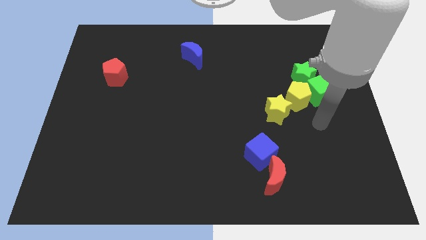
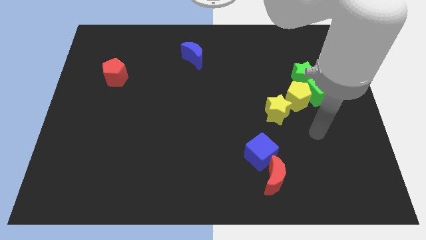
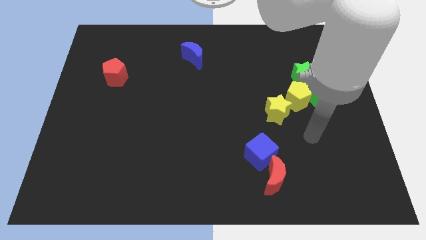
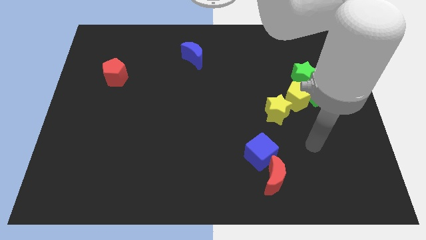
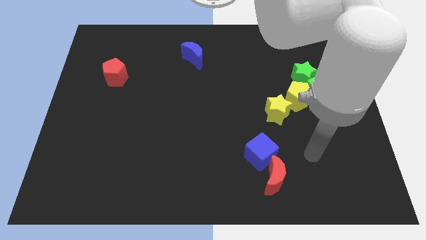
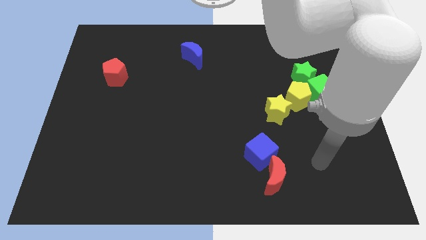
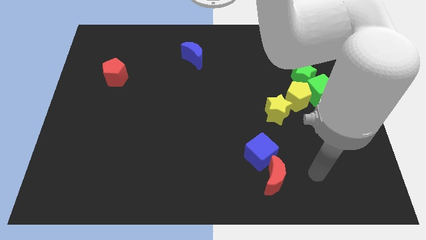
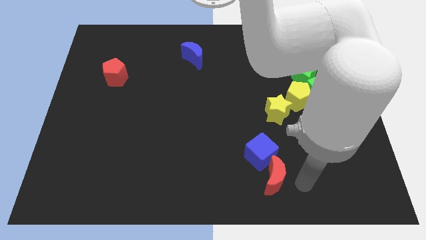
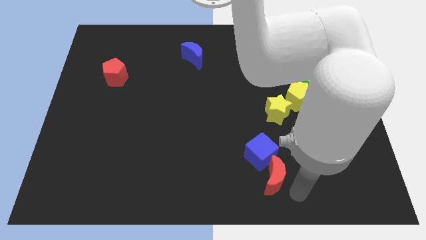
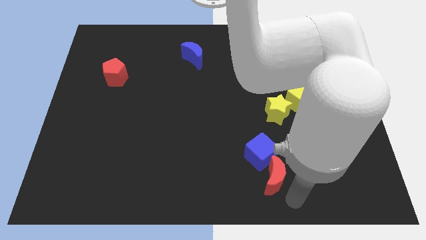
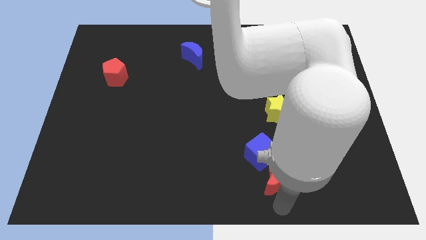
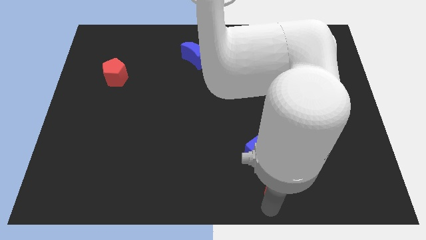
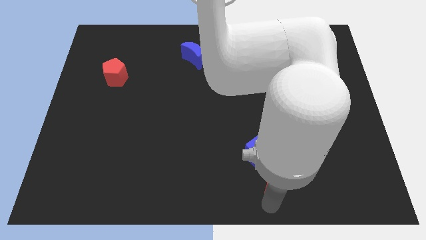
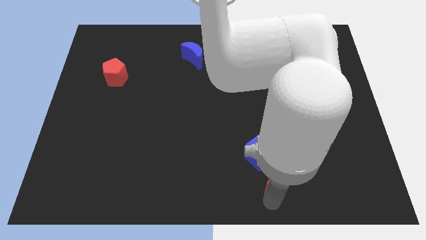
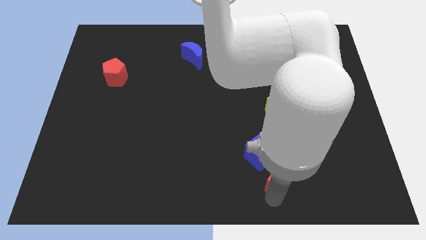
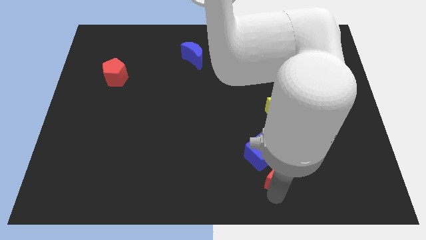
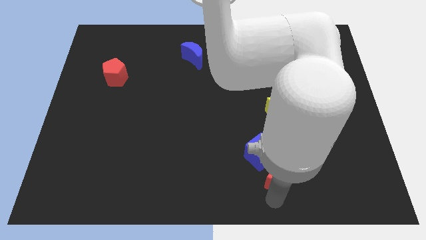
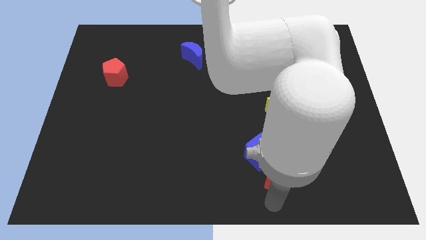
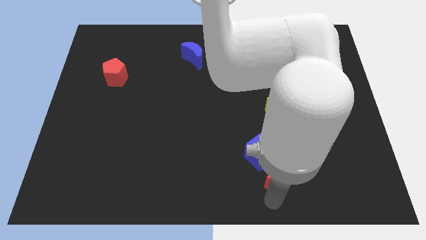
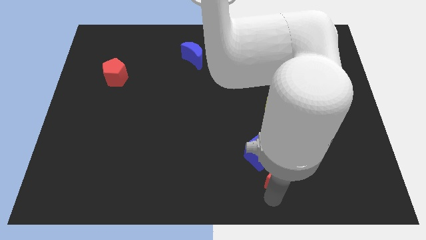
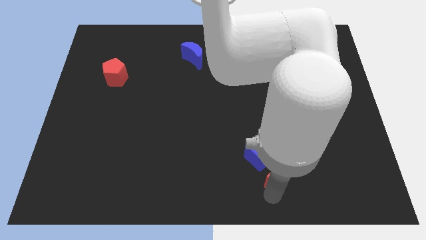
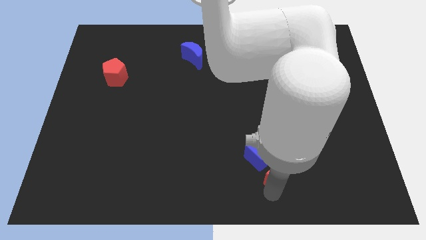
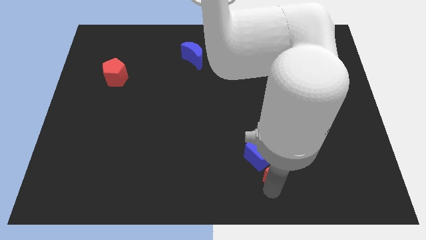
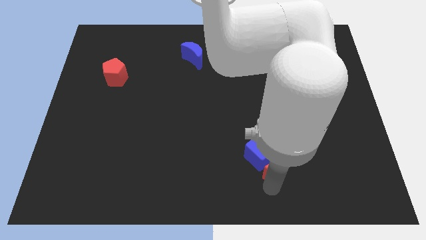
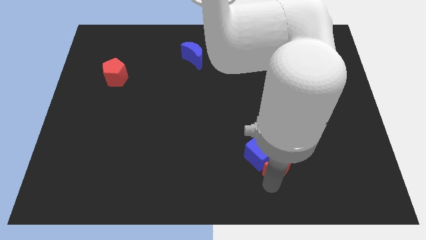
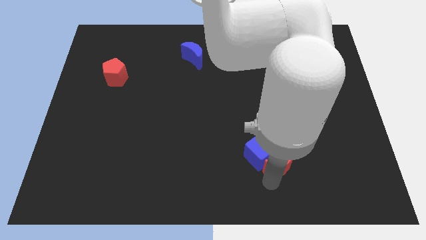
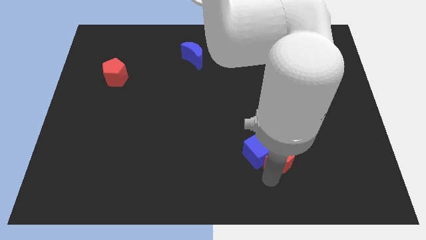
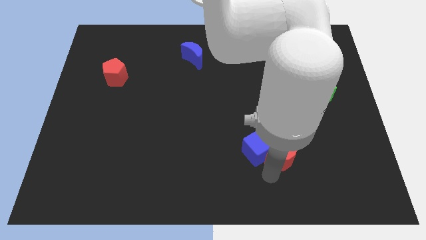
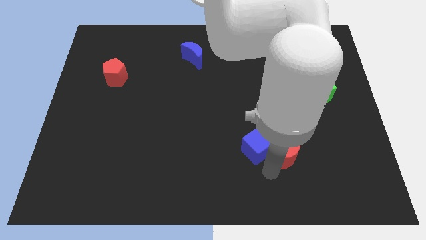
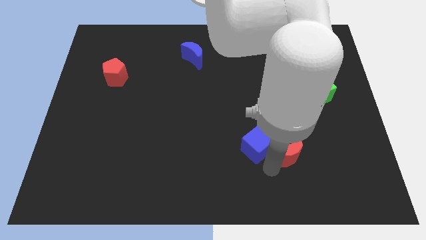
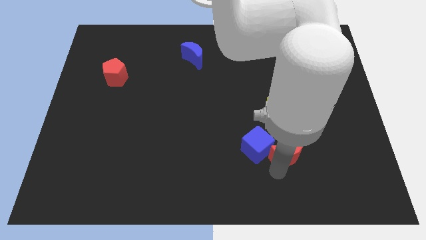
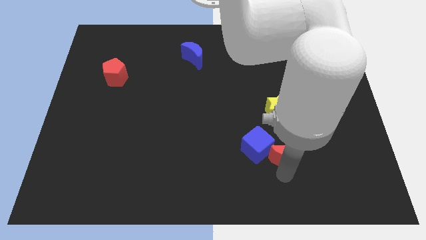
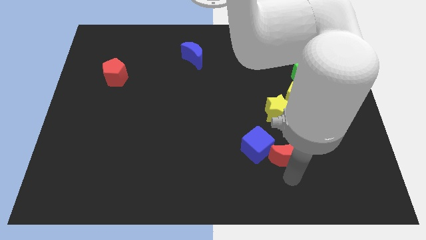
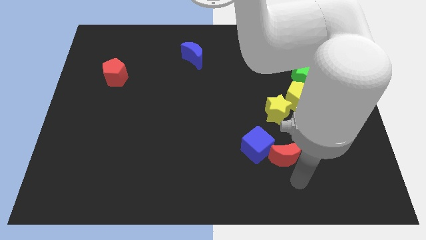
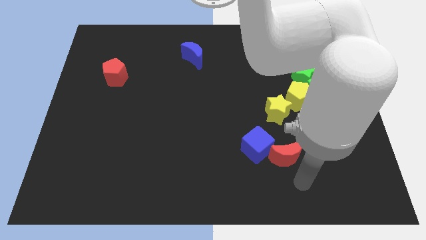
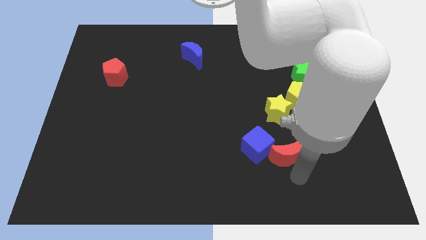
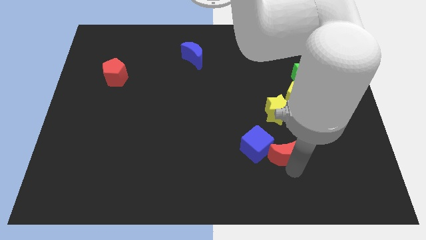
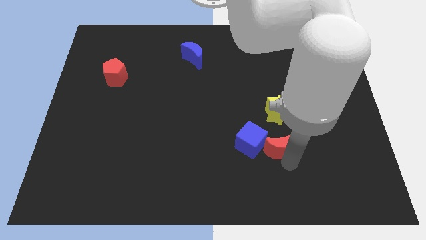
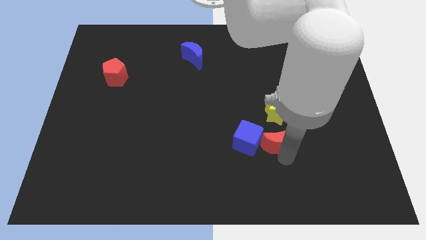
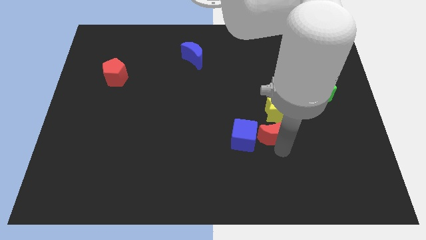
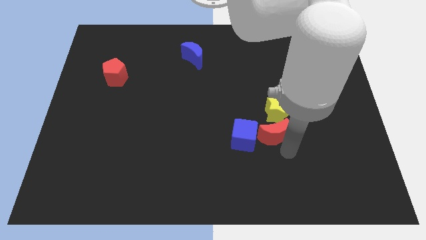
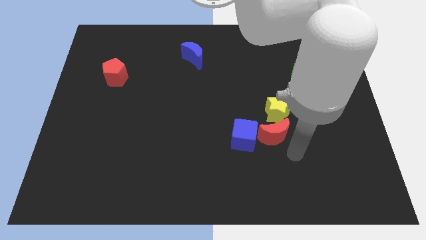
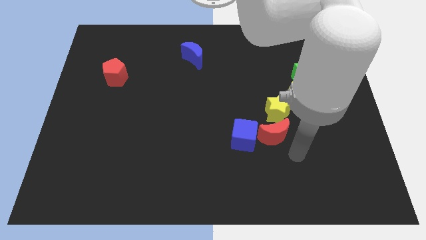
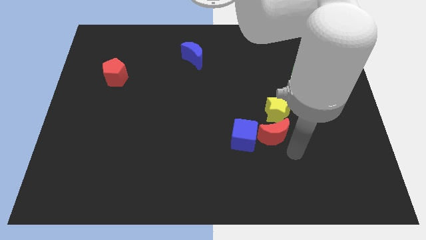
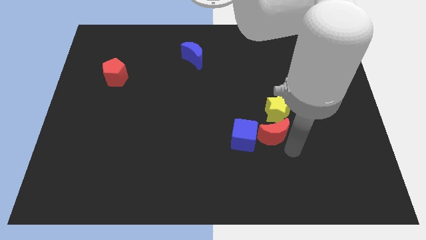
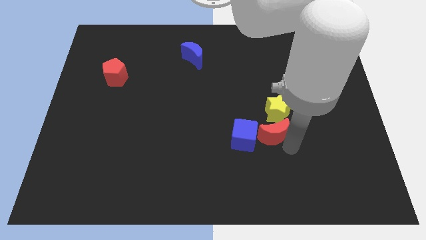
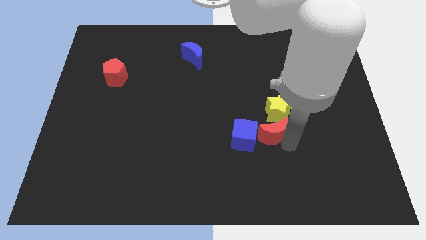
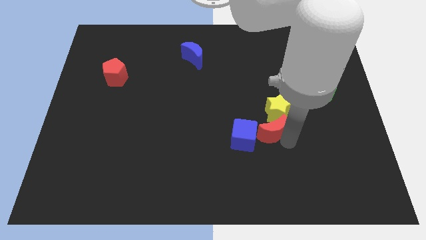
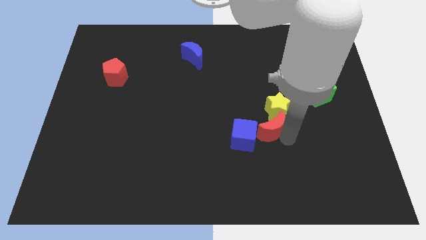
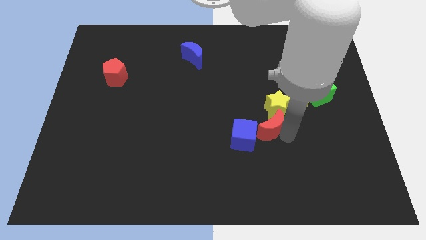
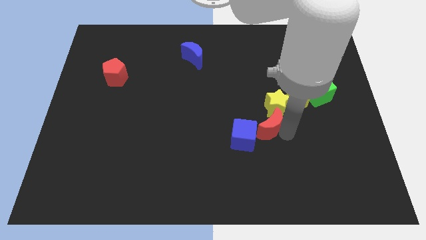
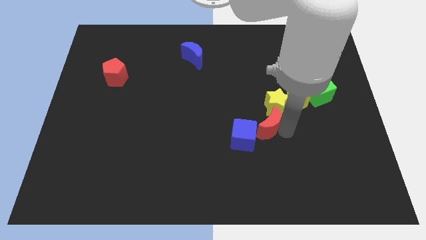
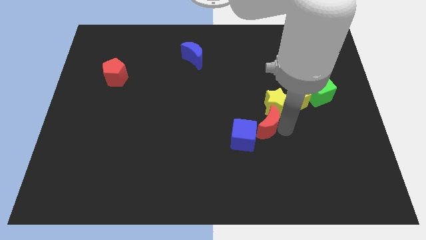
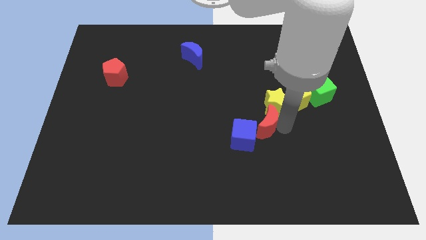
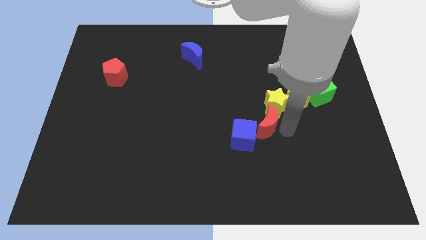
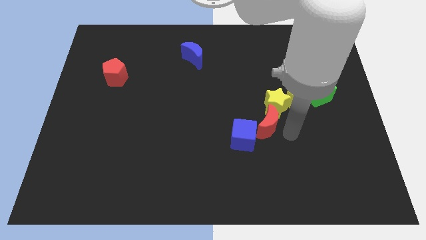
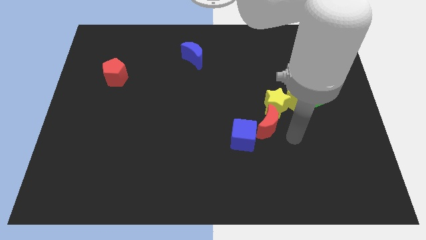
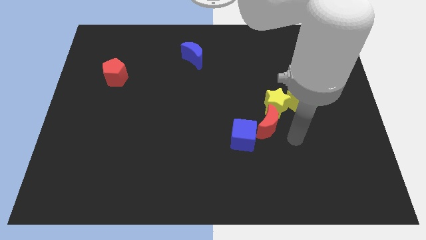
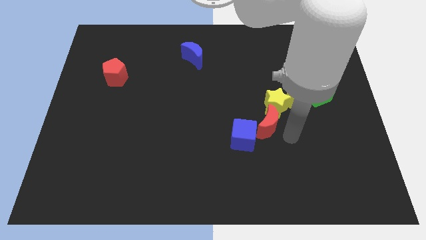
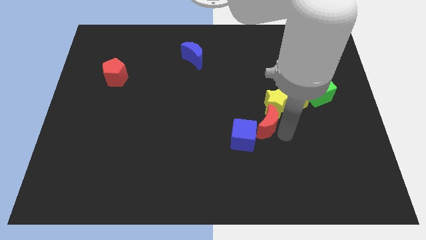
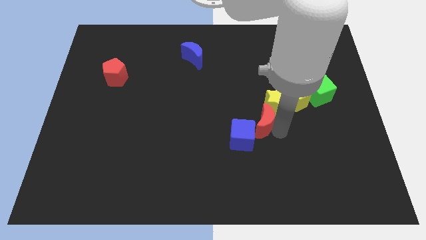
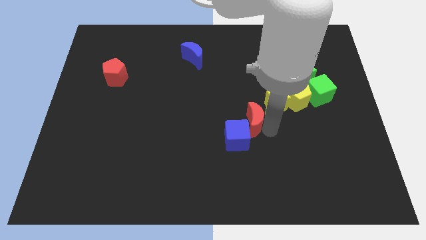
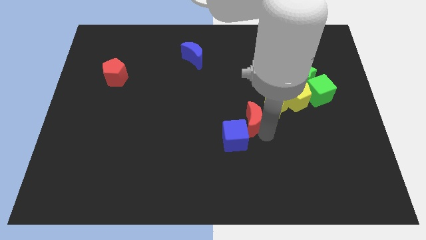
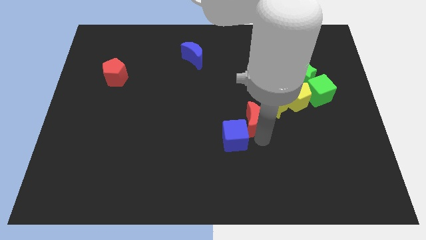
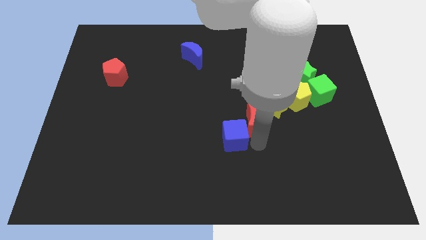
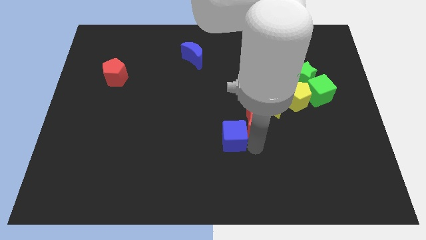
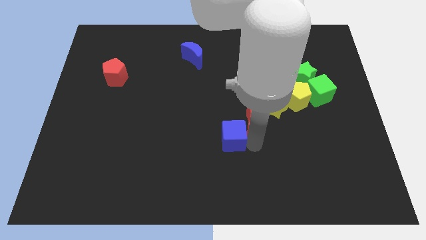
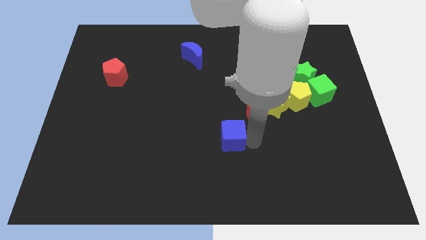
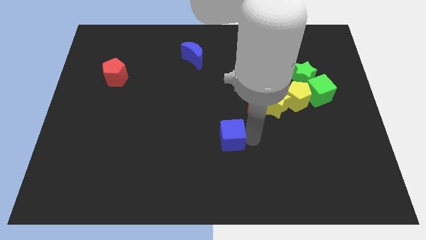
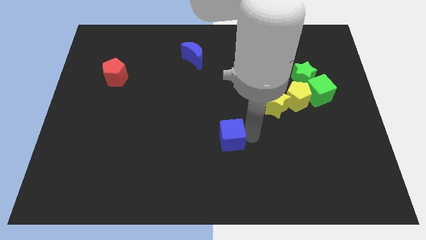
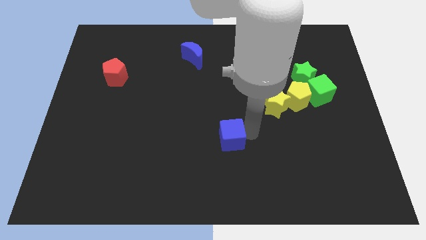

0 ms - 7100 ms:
push the red moon just left of the yellow pentagon
